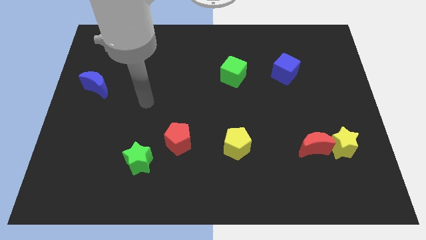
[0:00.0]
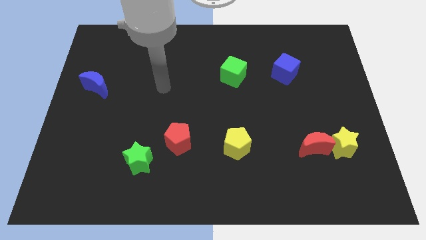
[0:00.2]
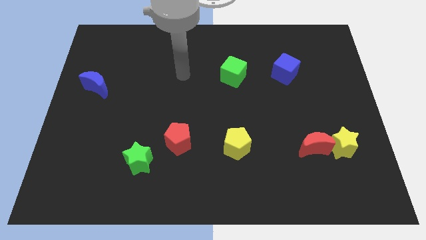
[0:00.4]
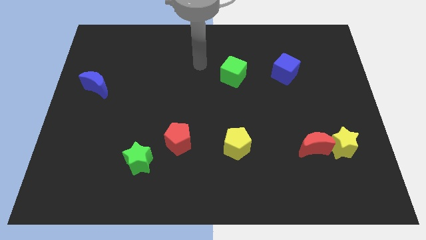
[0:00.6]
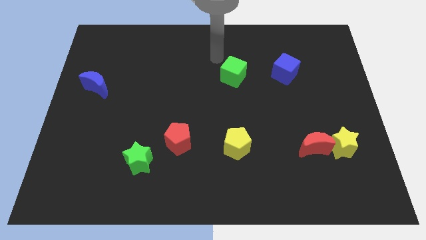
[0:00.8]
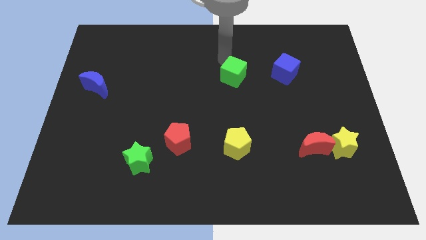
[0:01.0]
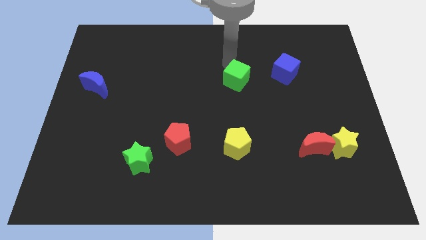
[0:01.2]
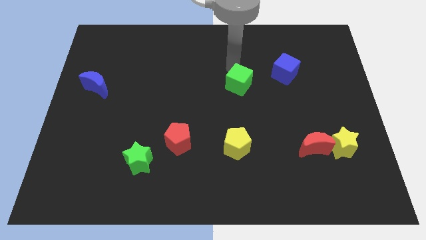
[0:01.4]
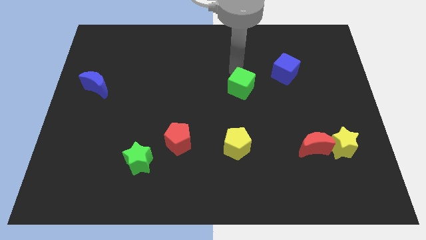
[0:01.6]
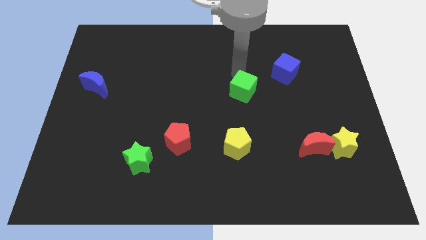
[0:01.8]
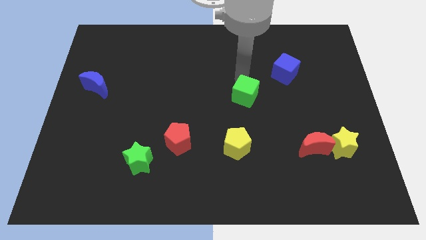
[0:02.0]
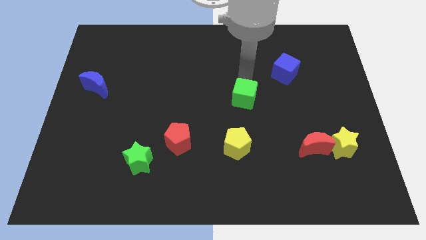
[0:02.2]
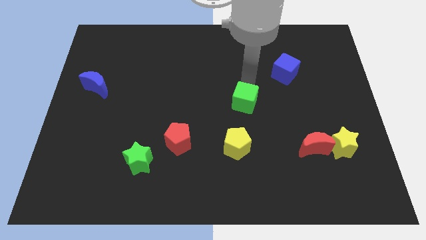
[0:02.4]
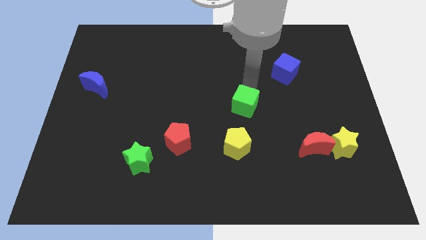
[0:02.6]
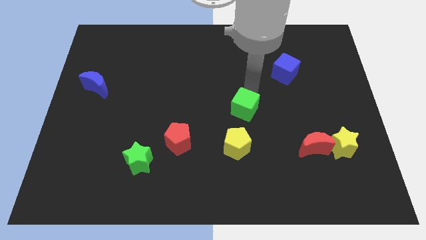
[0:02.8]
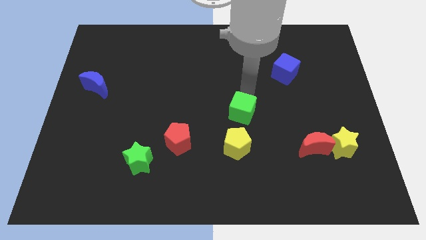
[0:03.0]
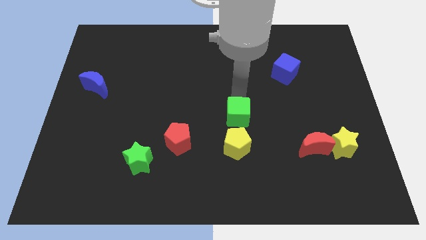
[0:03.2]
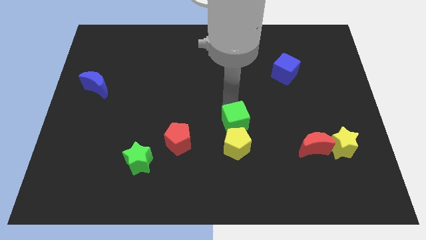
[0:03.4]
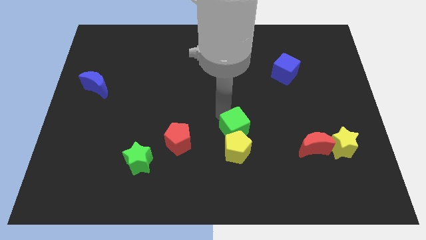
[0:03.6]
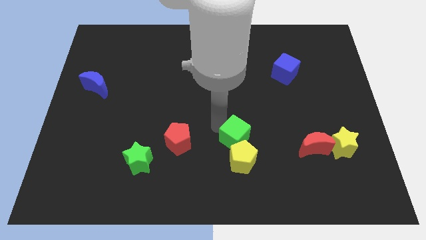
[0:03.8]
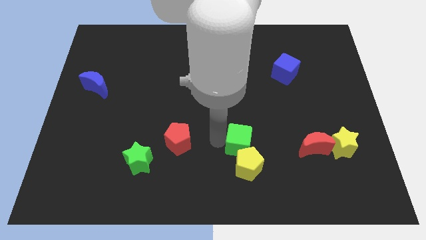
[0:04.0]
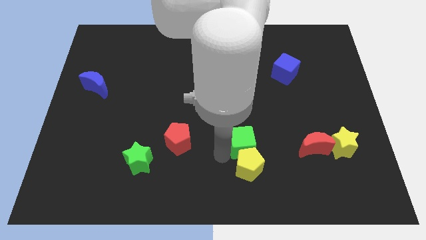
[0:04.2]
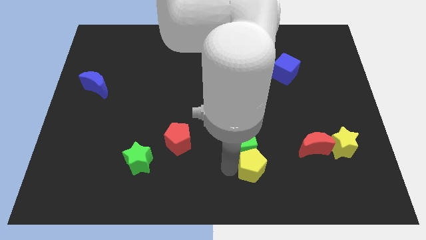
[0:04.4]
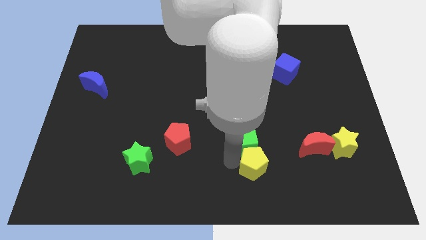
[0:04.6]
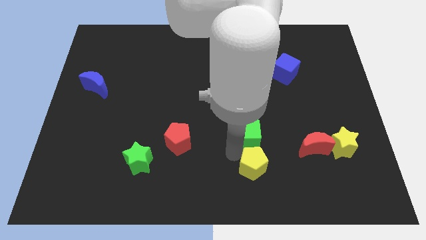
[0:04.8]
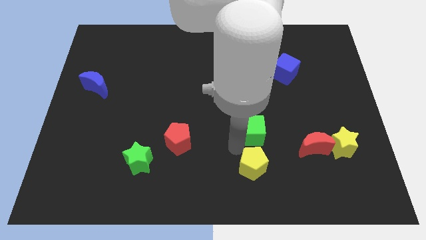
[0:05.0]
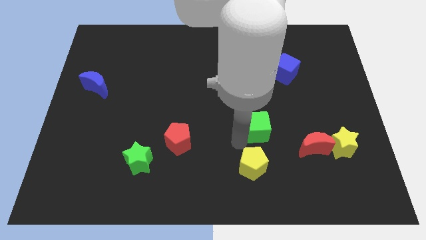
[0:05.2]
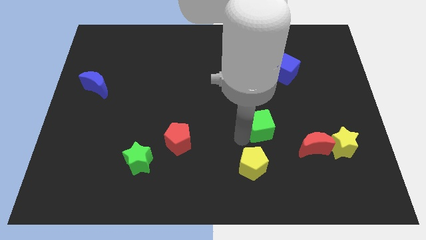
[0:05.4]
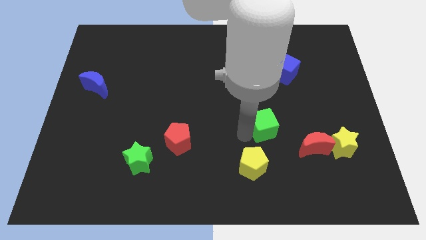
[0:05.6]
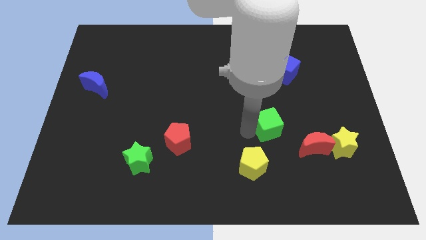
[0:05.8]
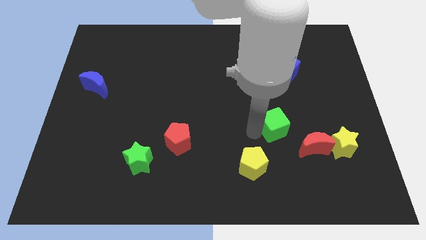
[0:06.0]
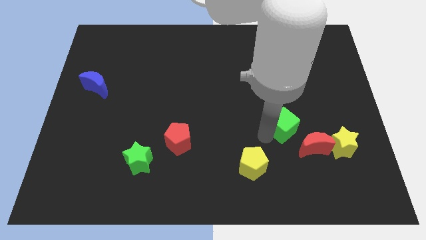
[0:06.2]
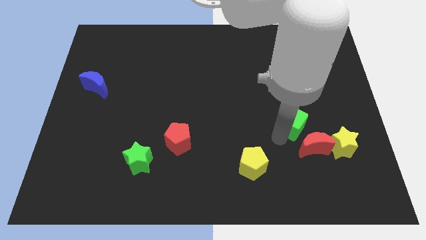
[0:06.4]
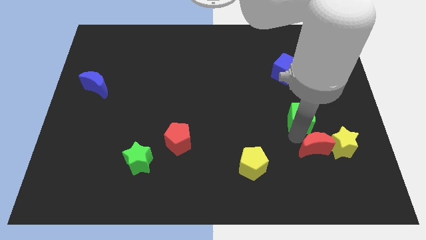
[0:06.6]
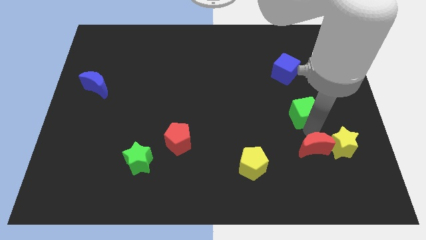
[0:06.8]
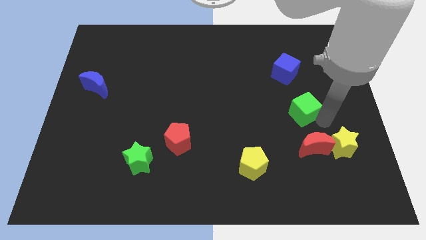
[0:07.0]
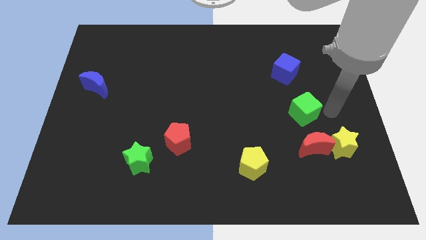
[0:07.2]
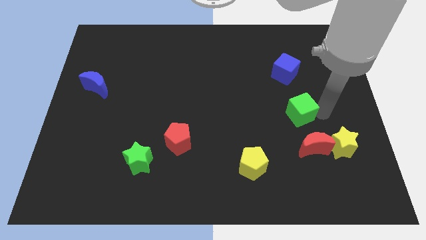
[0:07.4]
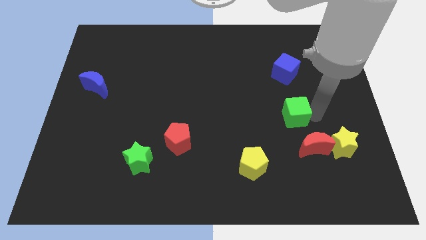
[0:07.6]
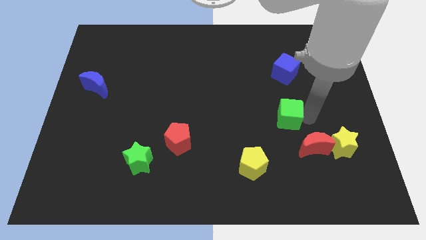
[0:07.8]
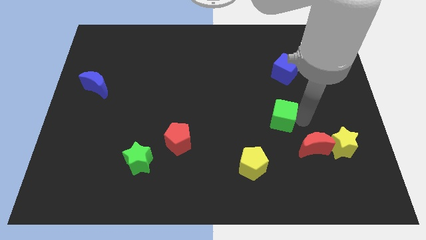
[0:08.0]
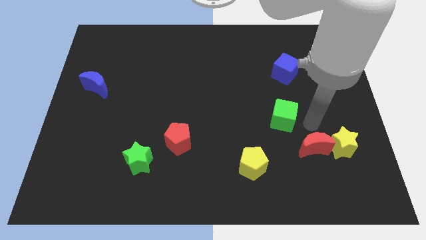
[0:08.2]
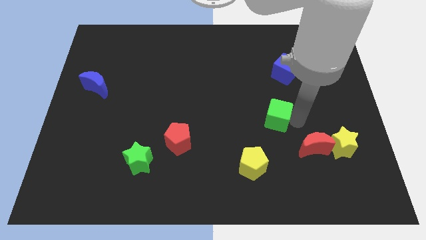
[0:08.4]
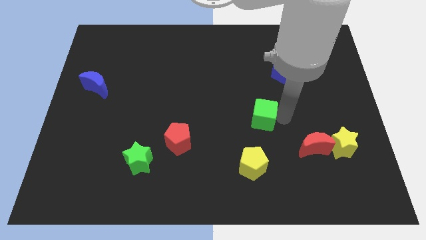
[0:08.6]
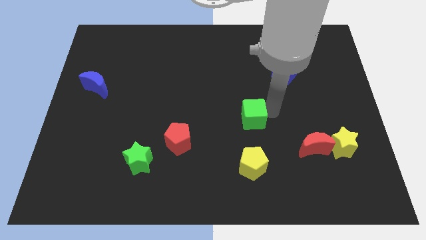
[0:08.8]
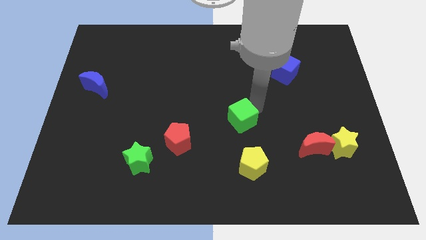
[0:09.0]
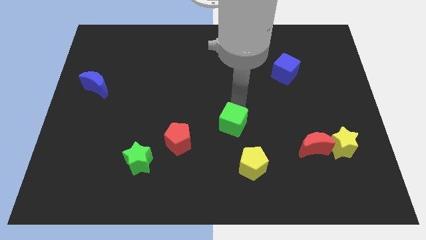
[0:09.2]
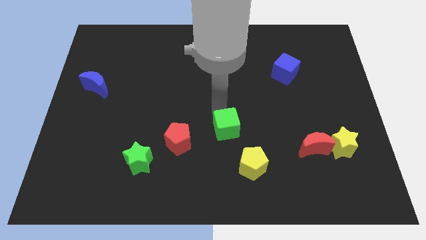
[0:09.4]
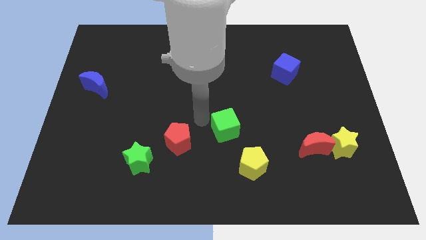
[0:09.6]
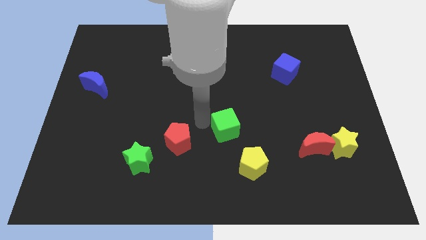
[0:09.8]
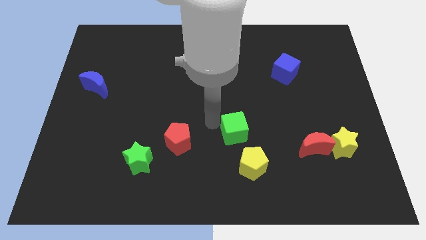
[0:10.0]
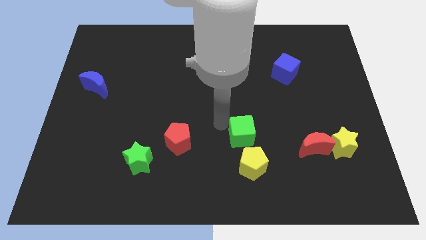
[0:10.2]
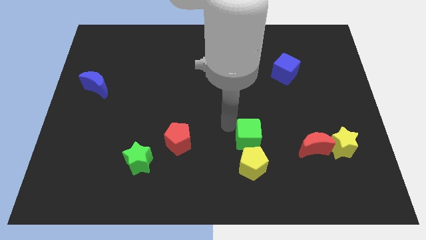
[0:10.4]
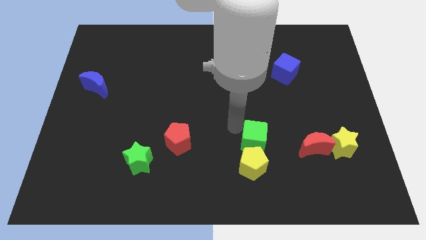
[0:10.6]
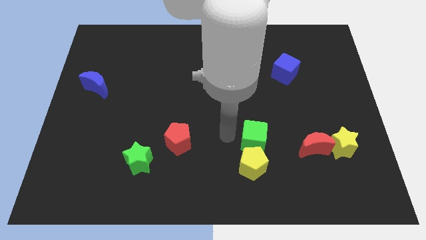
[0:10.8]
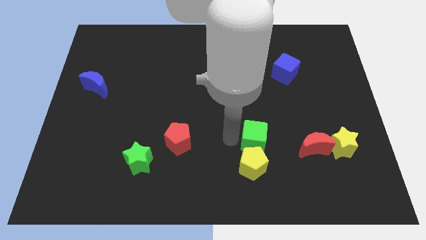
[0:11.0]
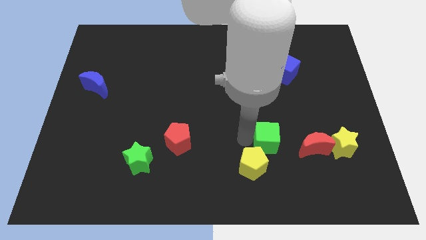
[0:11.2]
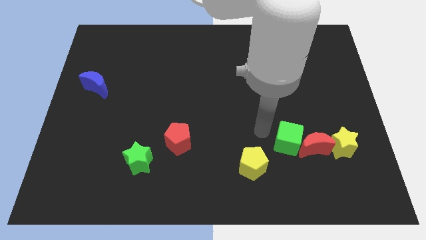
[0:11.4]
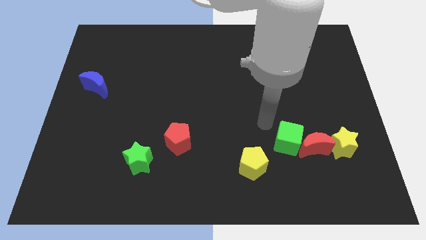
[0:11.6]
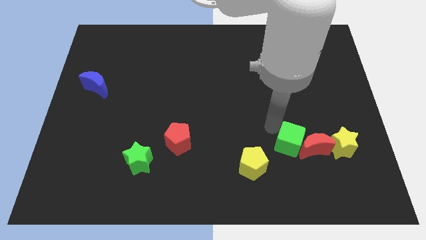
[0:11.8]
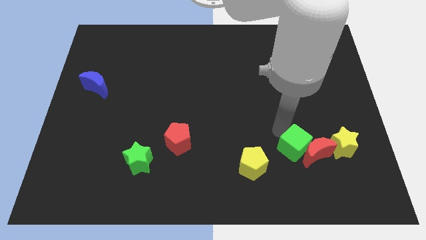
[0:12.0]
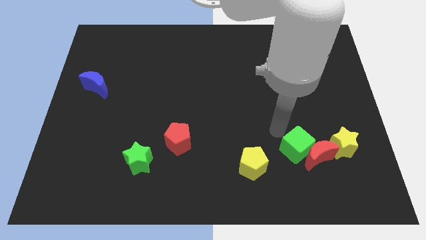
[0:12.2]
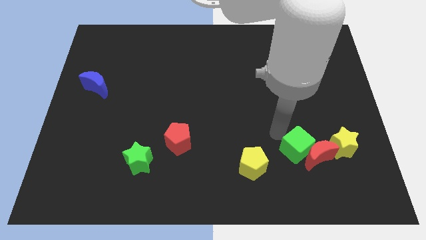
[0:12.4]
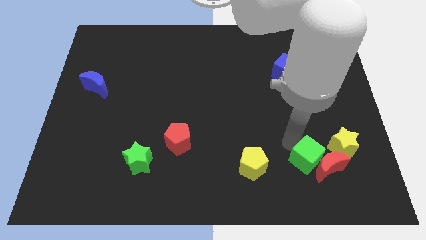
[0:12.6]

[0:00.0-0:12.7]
push the green cube diagonally down and to the left of the yellow star

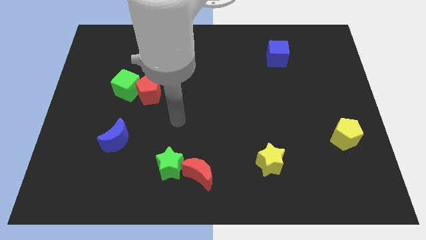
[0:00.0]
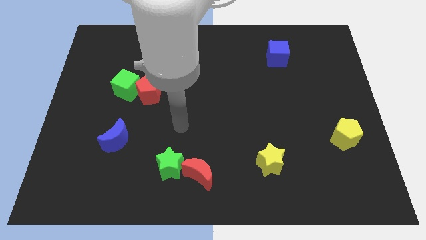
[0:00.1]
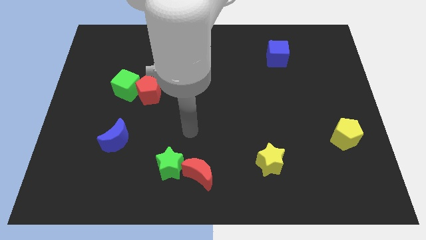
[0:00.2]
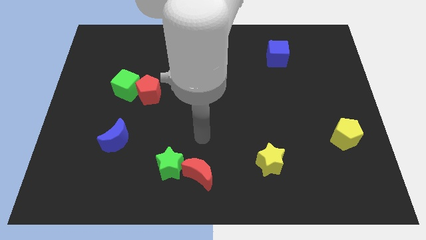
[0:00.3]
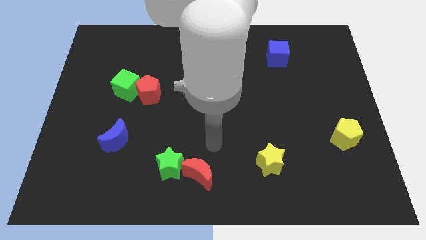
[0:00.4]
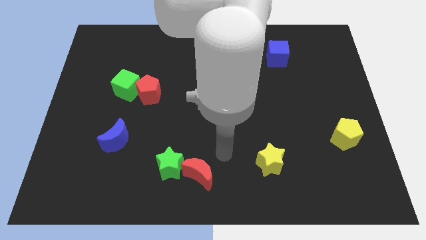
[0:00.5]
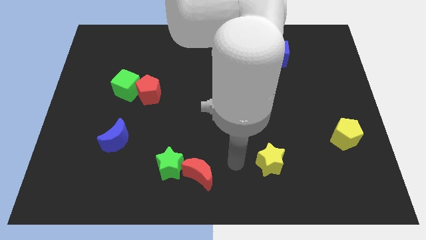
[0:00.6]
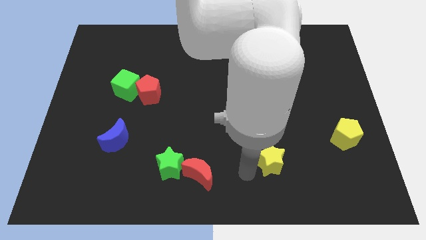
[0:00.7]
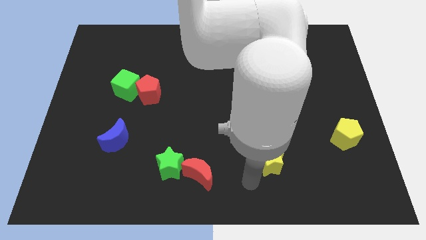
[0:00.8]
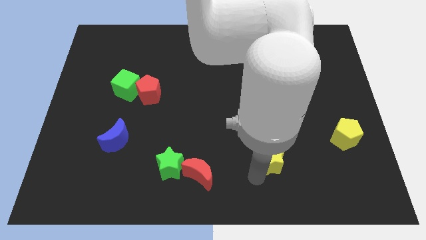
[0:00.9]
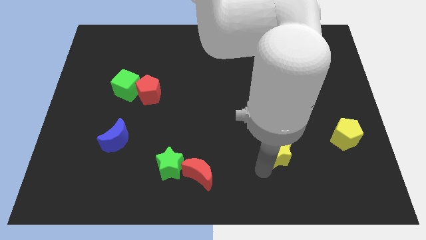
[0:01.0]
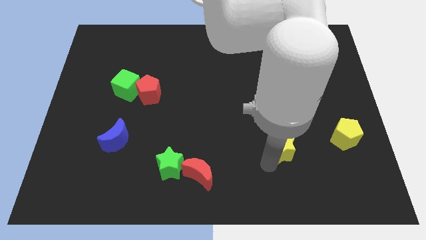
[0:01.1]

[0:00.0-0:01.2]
slide the yellow star left of the yellow pentagon
